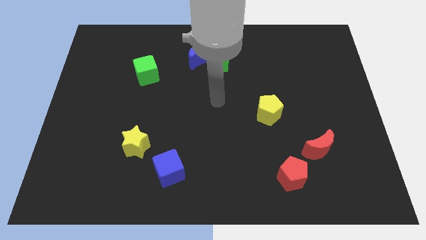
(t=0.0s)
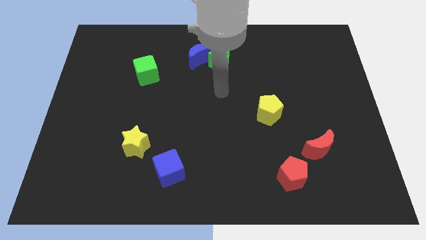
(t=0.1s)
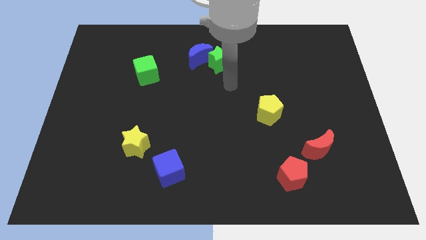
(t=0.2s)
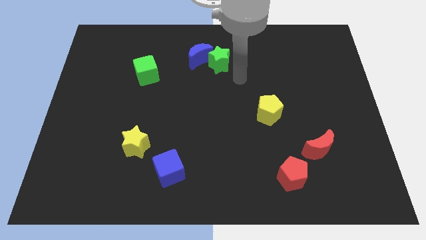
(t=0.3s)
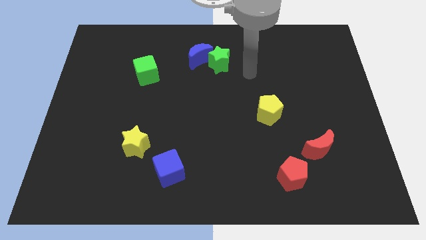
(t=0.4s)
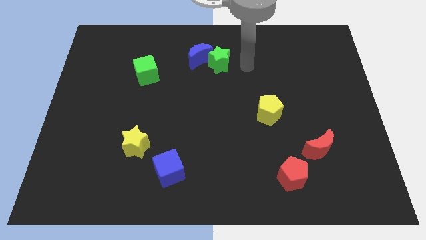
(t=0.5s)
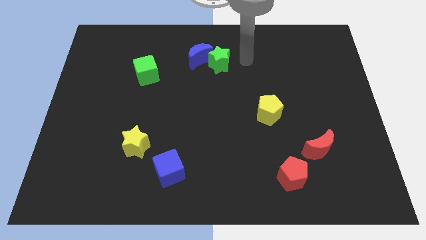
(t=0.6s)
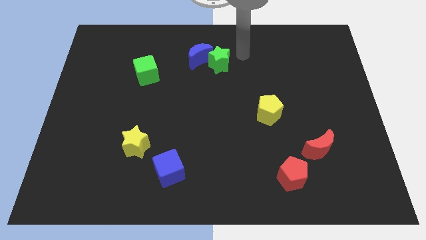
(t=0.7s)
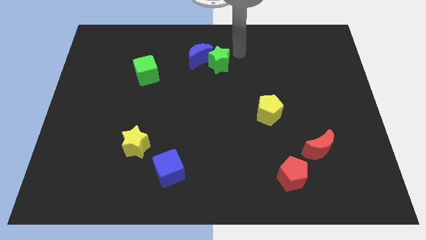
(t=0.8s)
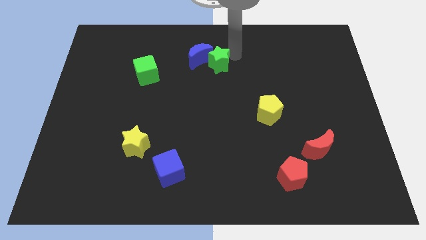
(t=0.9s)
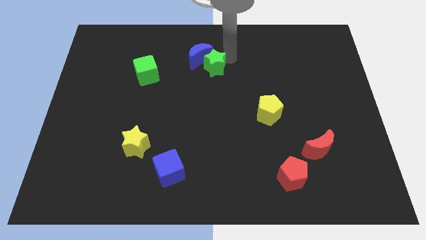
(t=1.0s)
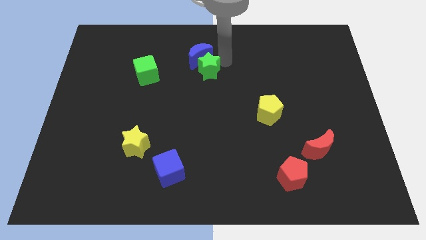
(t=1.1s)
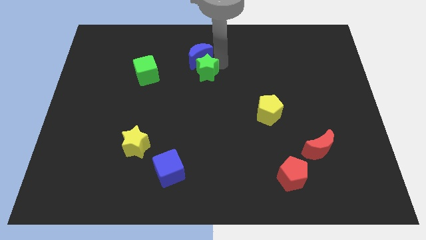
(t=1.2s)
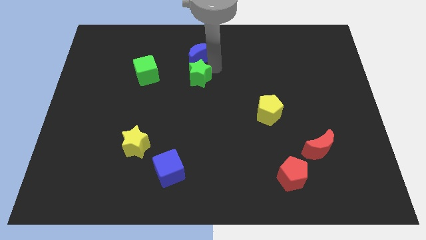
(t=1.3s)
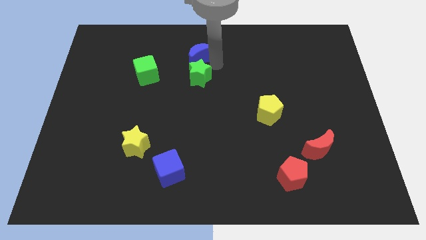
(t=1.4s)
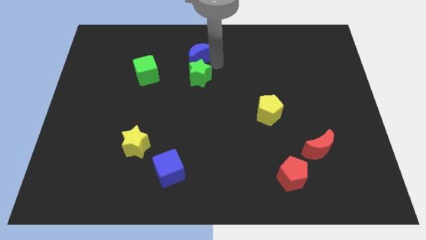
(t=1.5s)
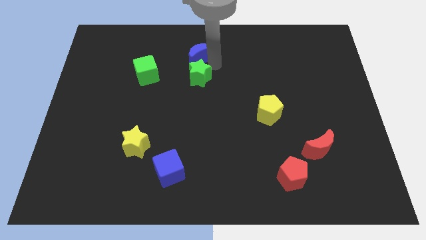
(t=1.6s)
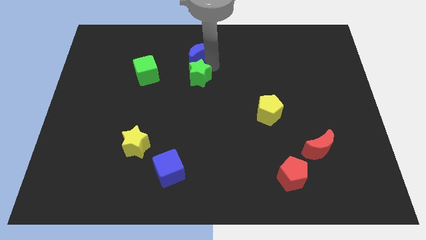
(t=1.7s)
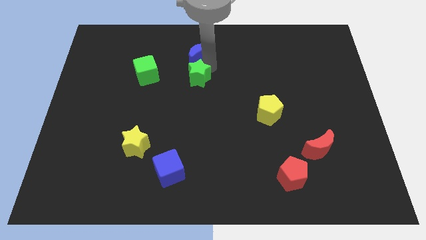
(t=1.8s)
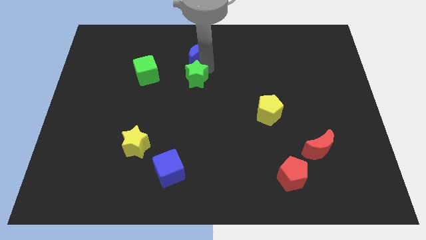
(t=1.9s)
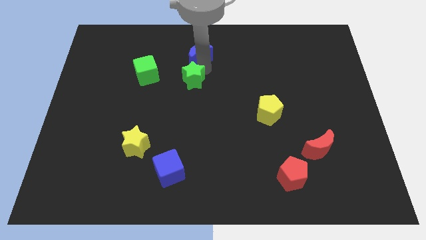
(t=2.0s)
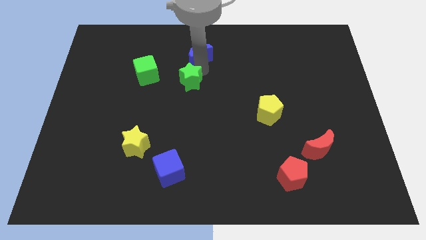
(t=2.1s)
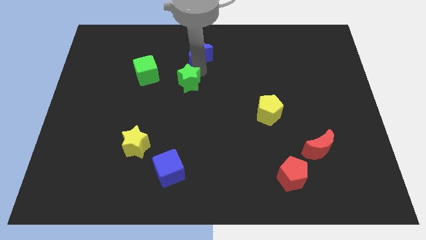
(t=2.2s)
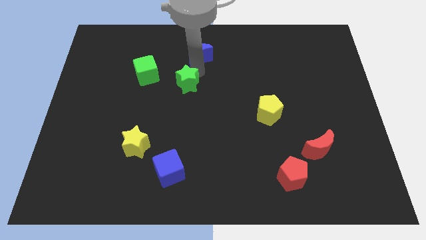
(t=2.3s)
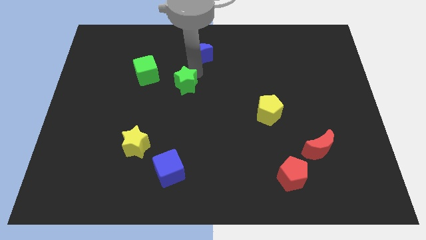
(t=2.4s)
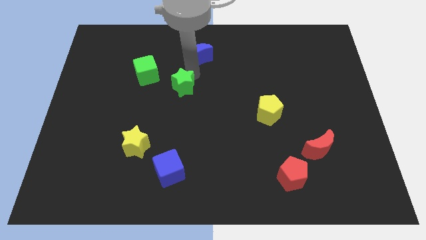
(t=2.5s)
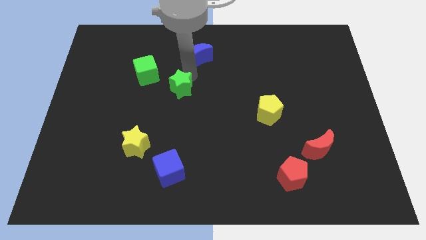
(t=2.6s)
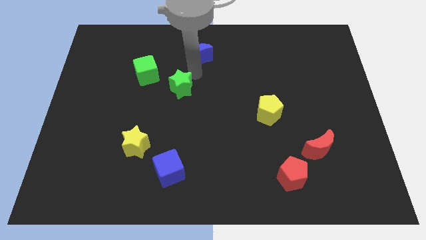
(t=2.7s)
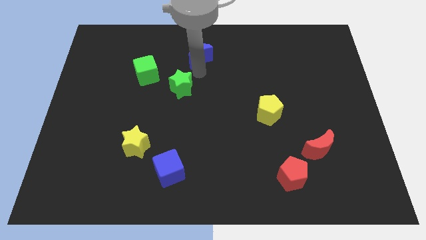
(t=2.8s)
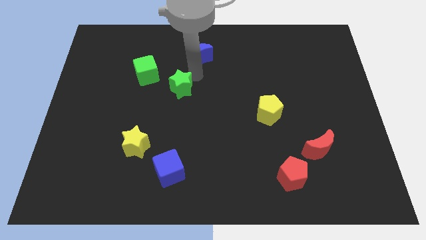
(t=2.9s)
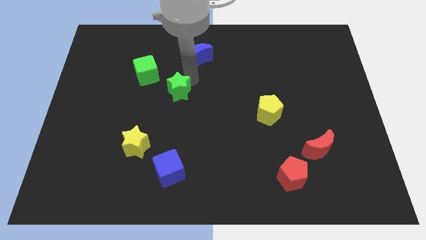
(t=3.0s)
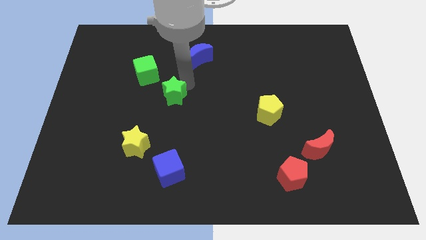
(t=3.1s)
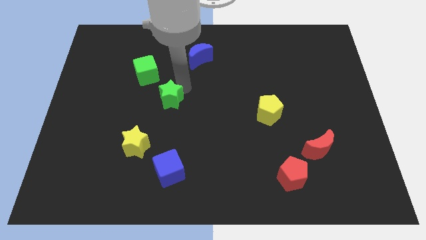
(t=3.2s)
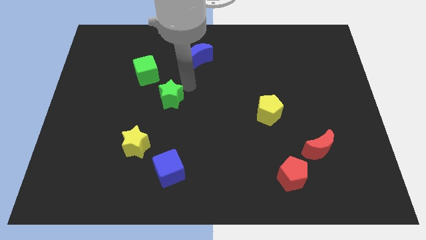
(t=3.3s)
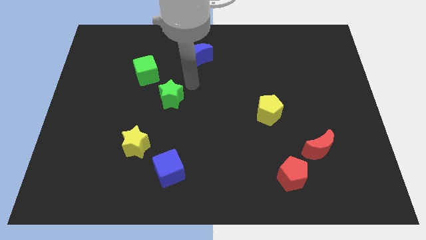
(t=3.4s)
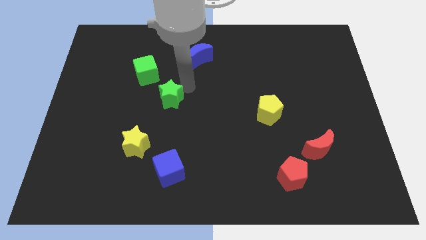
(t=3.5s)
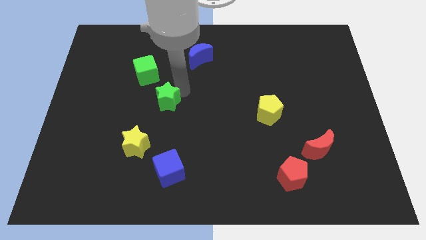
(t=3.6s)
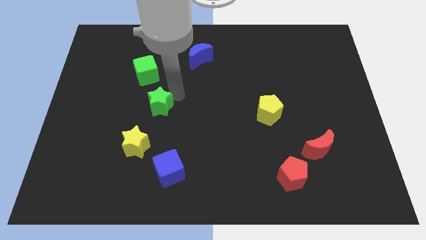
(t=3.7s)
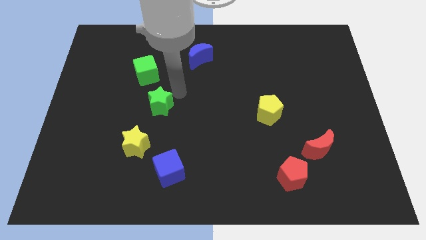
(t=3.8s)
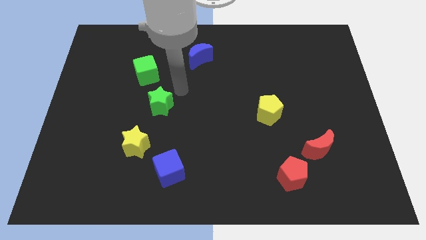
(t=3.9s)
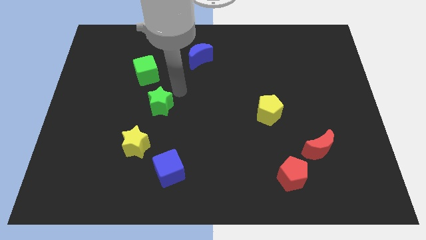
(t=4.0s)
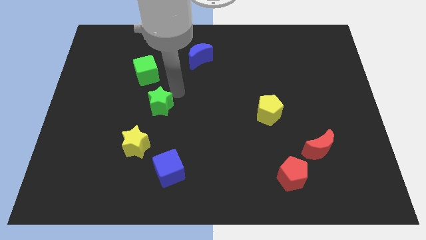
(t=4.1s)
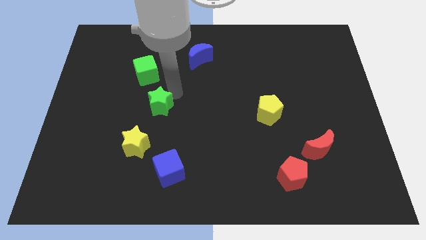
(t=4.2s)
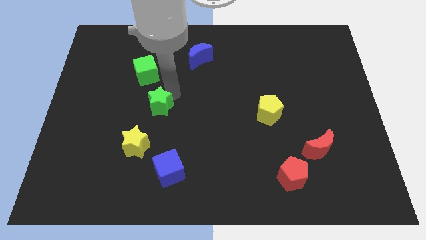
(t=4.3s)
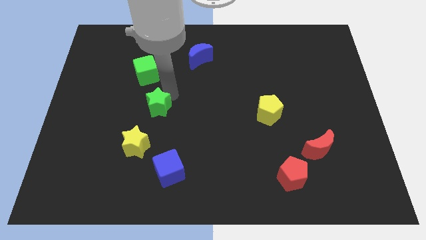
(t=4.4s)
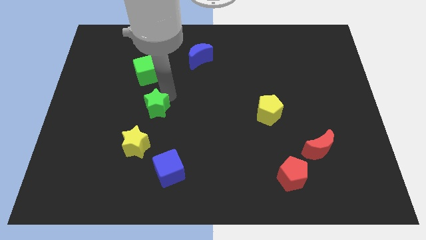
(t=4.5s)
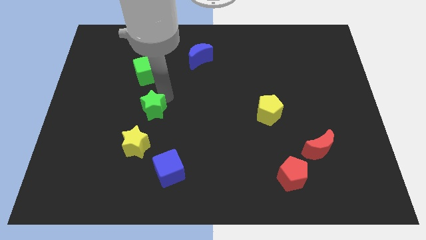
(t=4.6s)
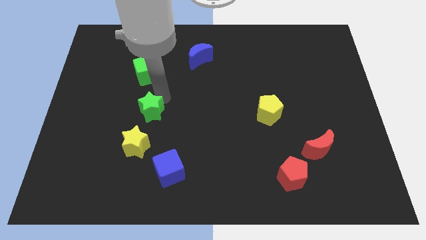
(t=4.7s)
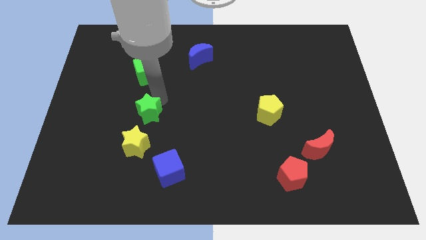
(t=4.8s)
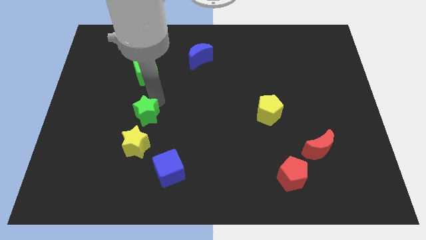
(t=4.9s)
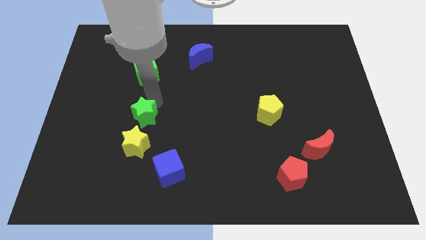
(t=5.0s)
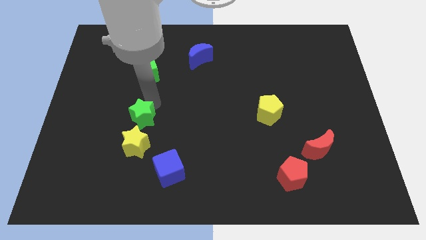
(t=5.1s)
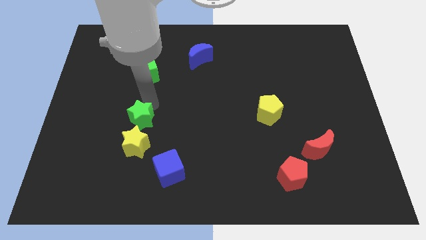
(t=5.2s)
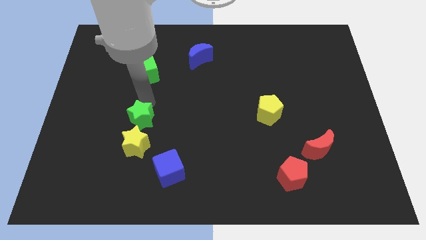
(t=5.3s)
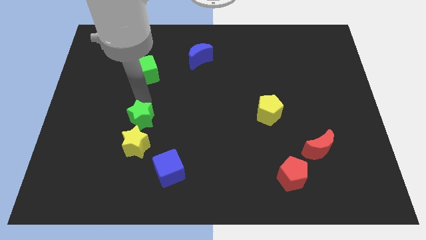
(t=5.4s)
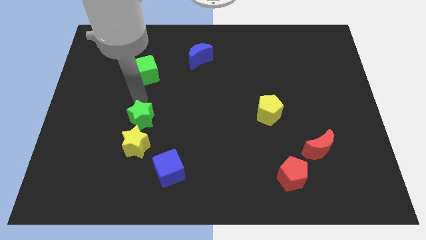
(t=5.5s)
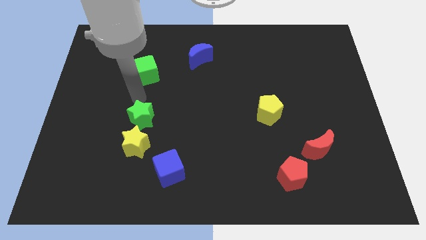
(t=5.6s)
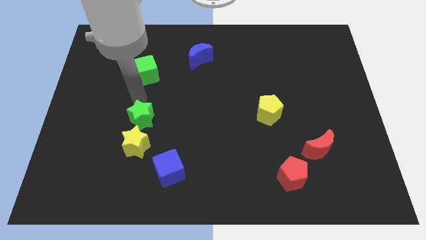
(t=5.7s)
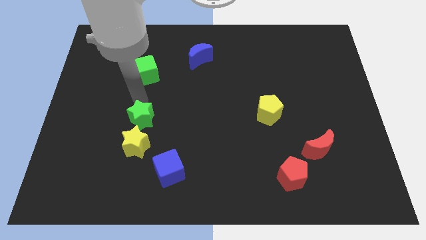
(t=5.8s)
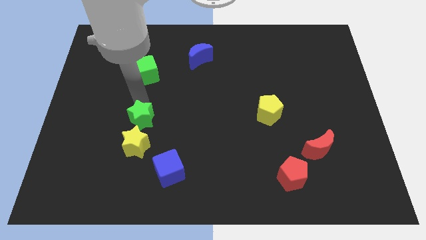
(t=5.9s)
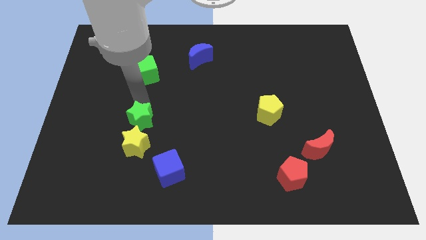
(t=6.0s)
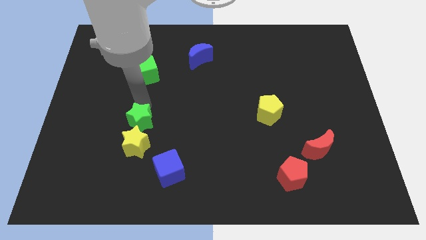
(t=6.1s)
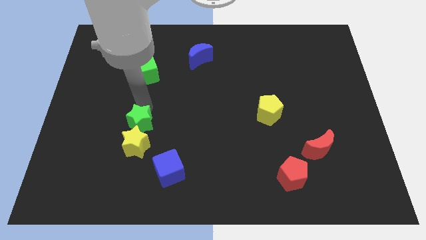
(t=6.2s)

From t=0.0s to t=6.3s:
put the green star to the yellow star
